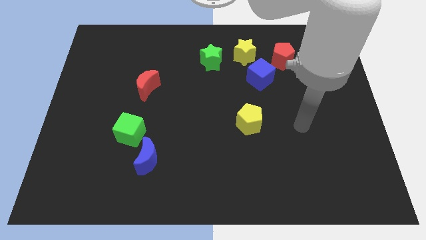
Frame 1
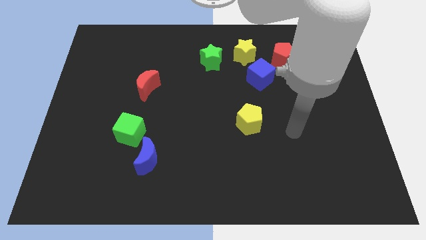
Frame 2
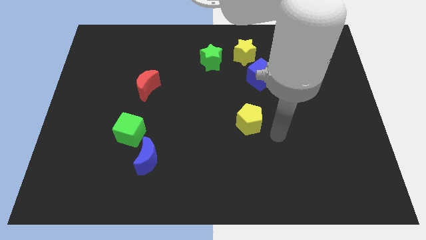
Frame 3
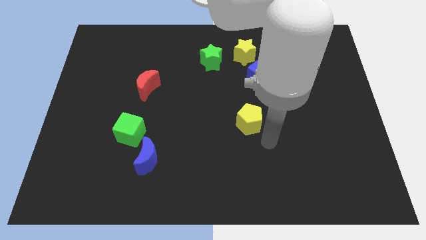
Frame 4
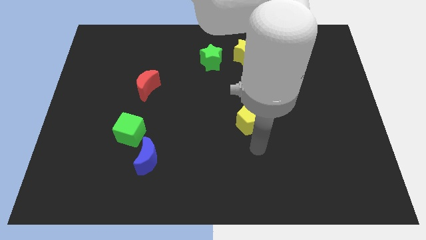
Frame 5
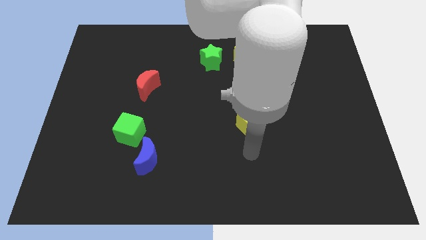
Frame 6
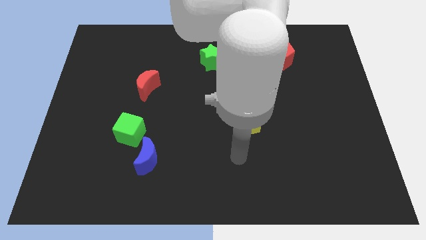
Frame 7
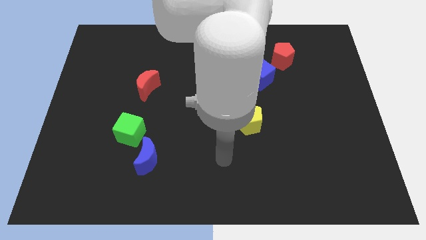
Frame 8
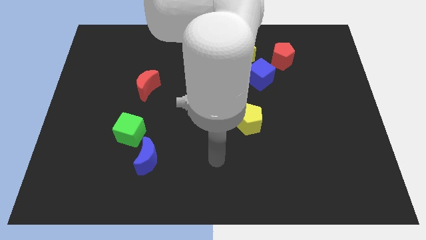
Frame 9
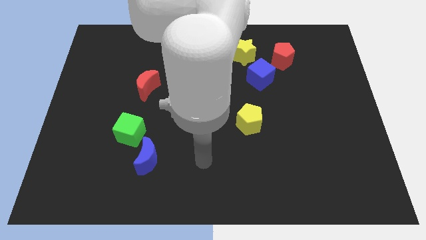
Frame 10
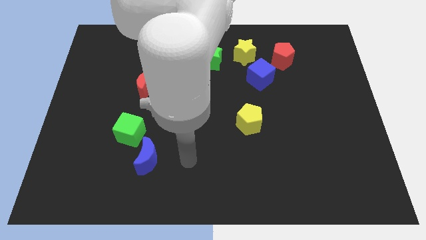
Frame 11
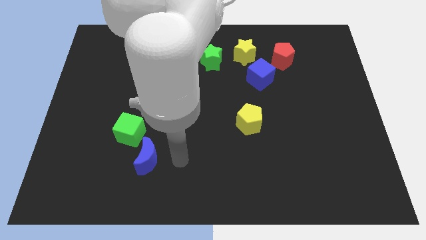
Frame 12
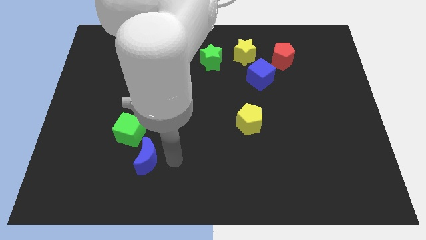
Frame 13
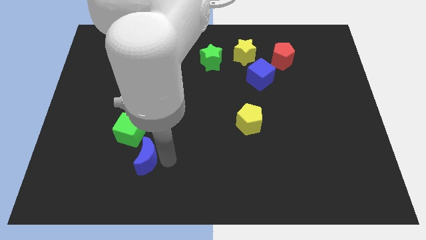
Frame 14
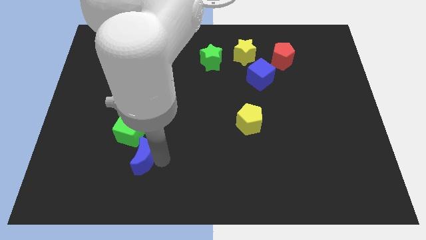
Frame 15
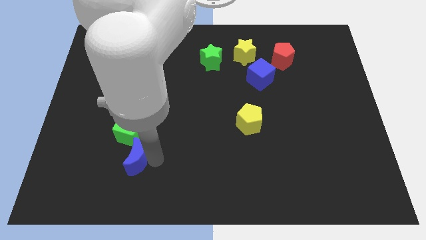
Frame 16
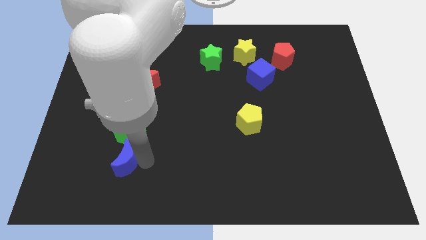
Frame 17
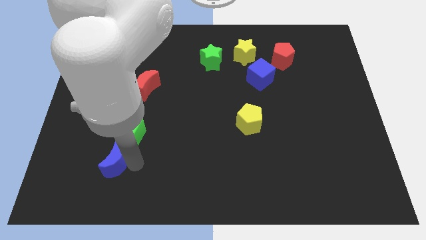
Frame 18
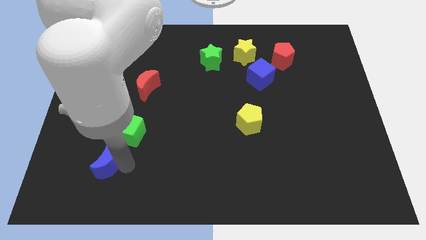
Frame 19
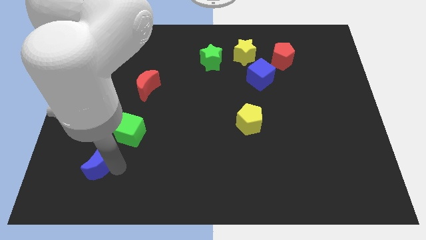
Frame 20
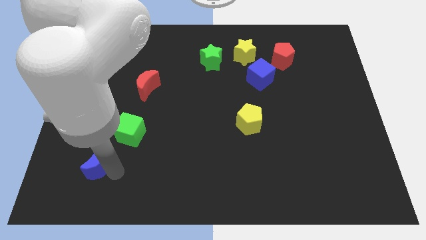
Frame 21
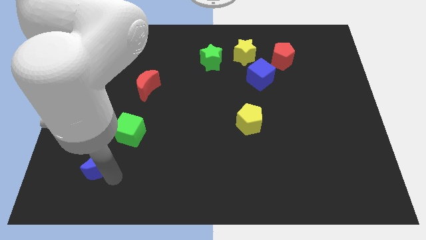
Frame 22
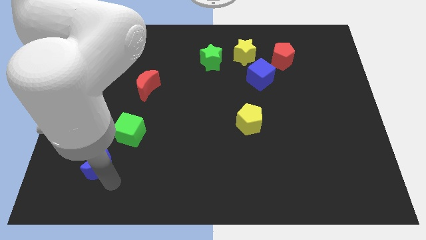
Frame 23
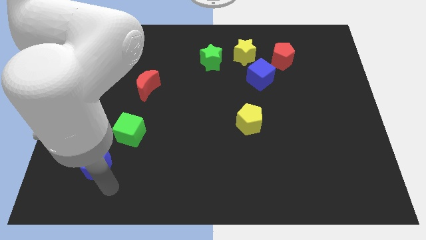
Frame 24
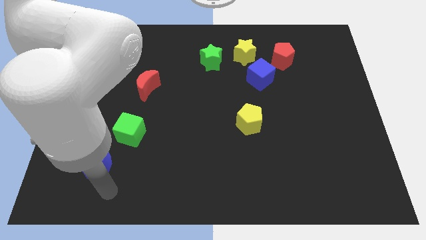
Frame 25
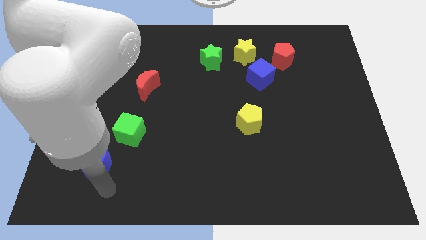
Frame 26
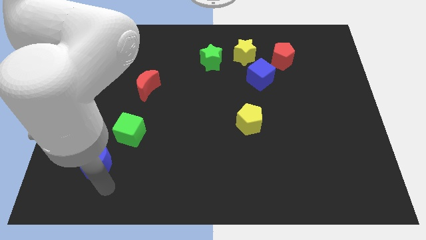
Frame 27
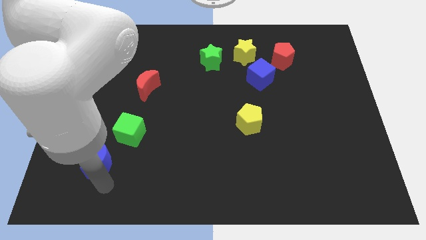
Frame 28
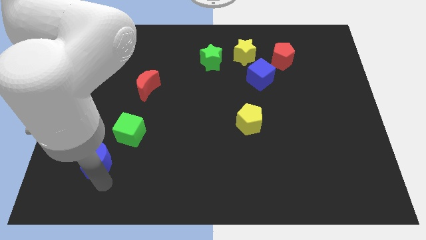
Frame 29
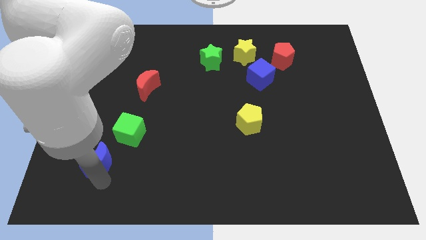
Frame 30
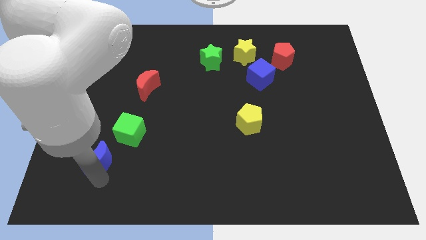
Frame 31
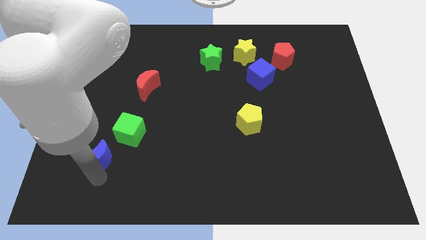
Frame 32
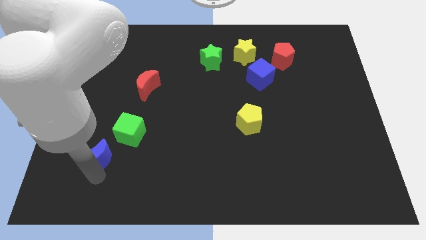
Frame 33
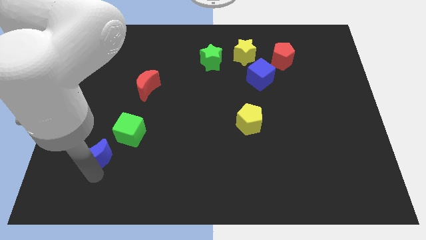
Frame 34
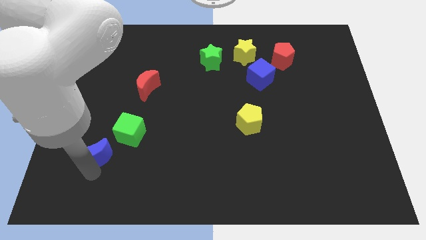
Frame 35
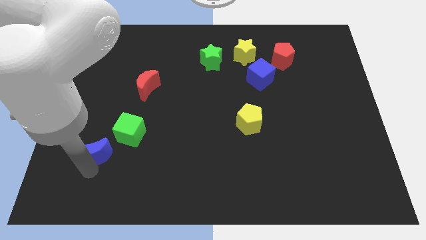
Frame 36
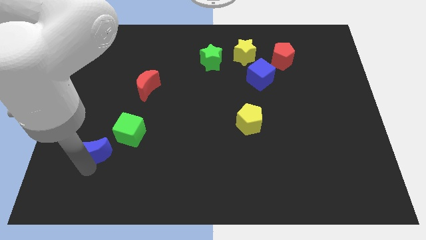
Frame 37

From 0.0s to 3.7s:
slightly push the blue moon upwards and to the left diagonally

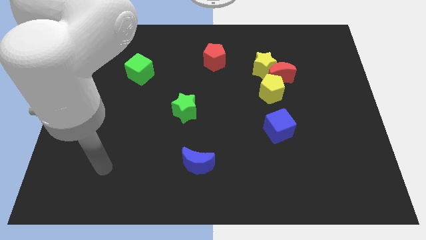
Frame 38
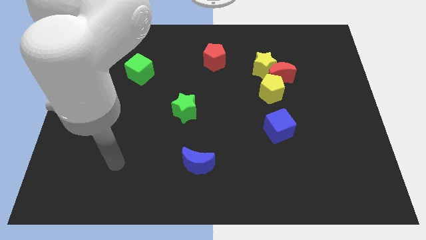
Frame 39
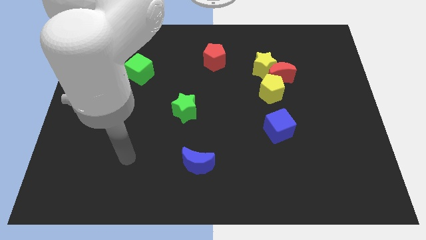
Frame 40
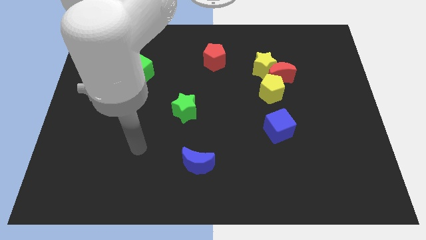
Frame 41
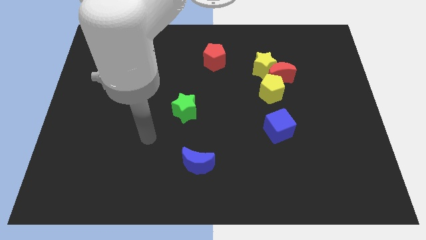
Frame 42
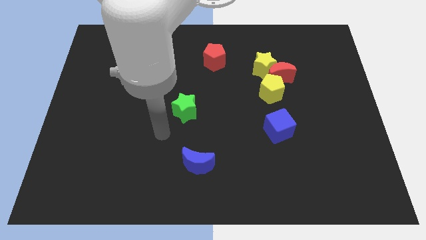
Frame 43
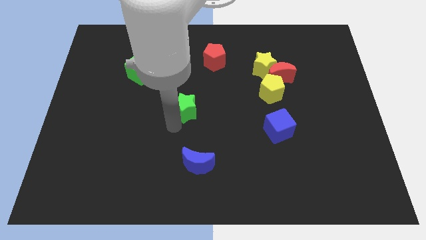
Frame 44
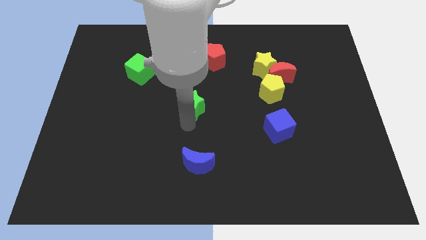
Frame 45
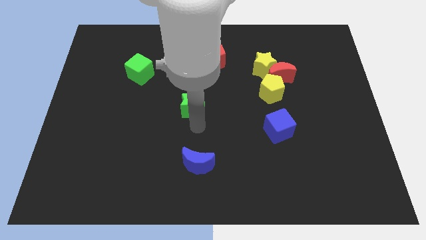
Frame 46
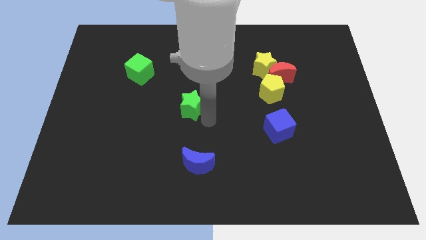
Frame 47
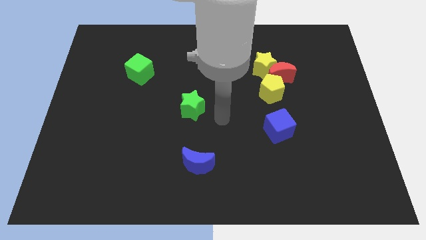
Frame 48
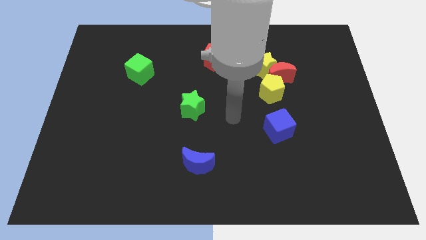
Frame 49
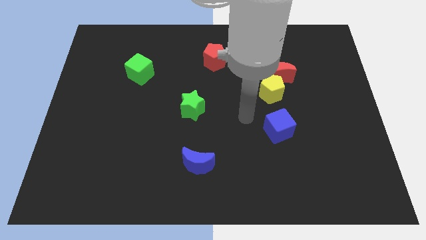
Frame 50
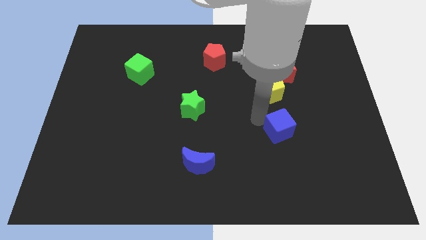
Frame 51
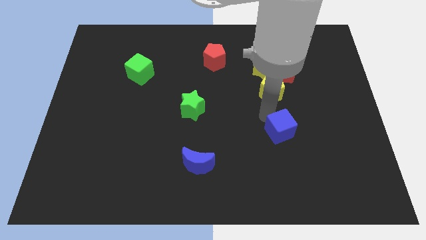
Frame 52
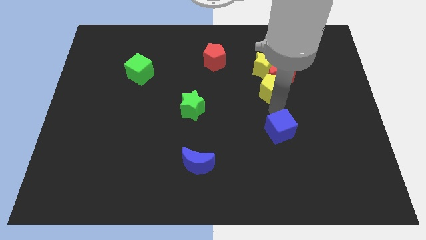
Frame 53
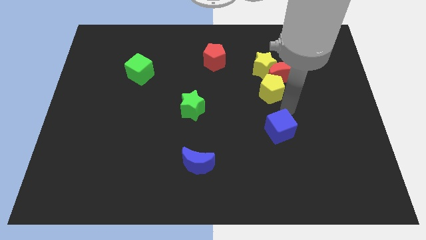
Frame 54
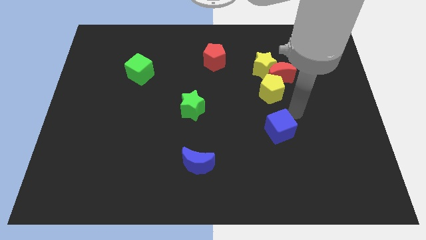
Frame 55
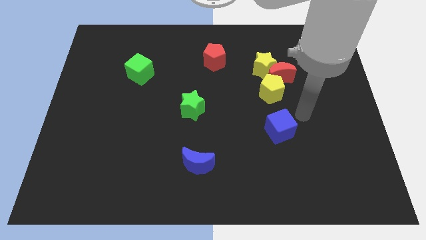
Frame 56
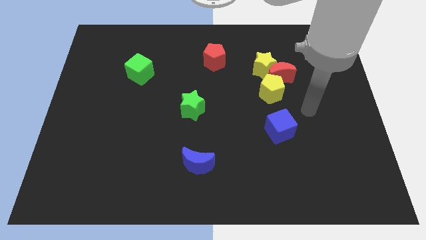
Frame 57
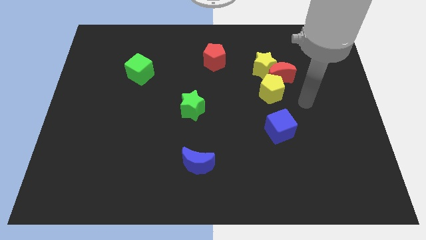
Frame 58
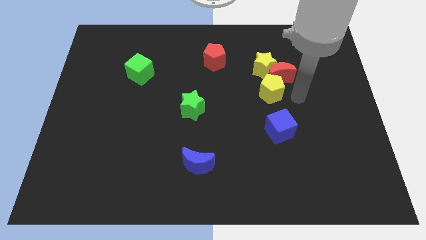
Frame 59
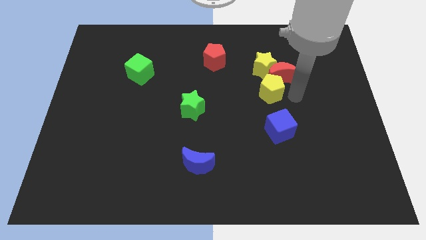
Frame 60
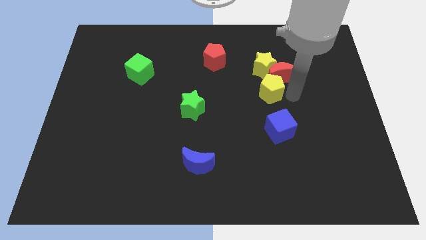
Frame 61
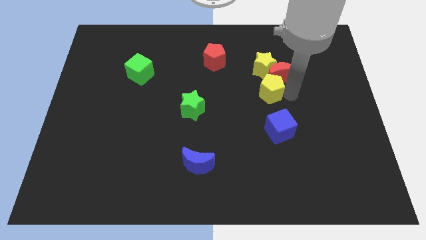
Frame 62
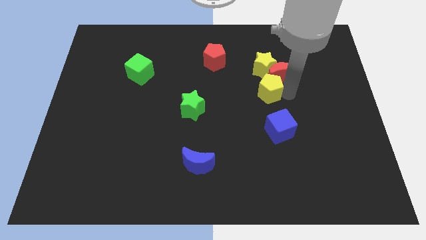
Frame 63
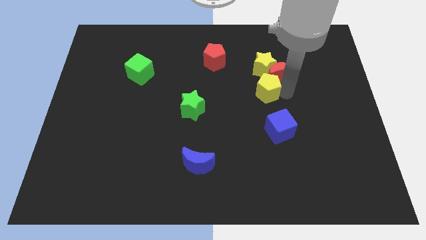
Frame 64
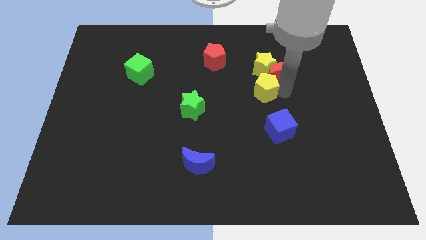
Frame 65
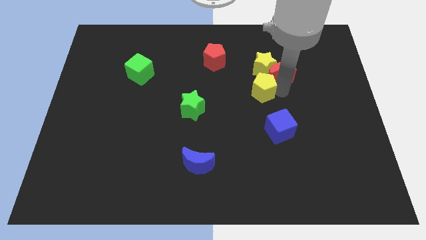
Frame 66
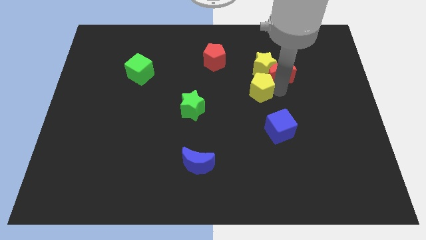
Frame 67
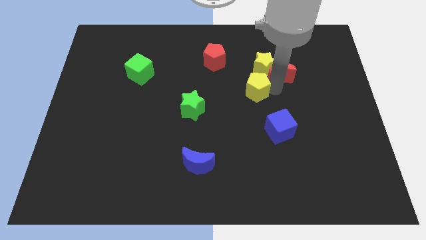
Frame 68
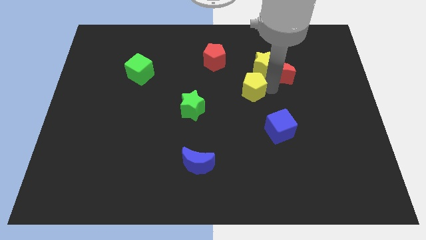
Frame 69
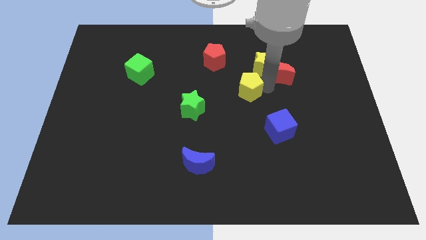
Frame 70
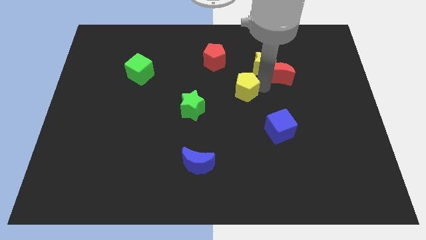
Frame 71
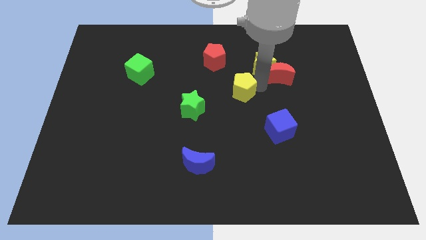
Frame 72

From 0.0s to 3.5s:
slightly move the yellow pentagon to the left

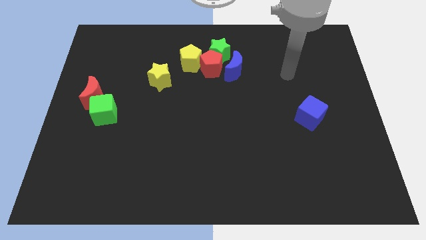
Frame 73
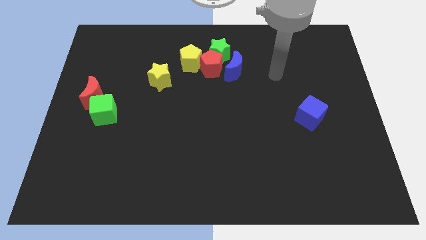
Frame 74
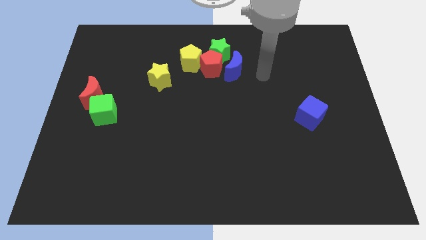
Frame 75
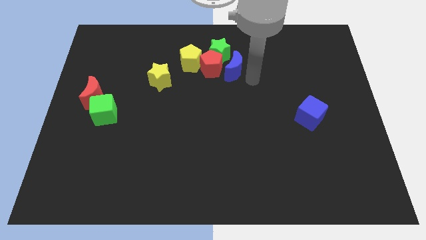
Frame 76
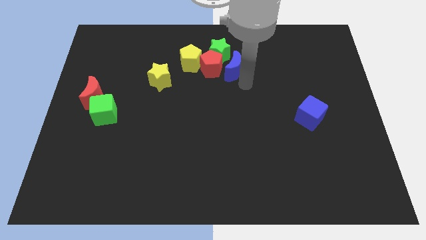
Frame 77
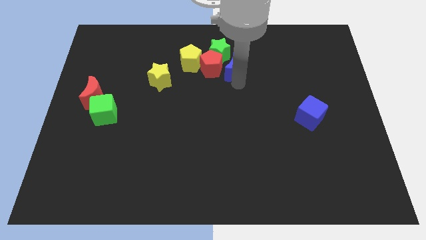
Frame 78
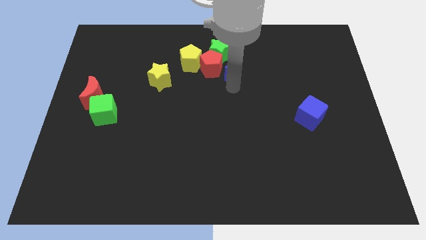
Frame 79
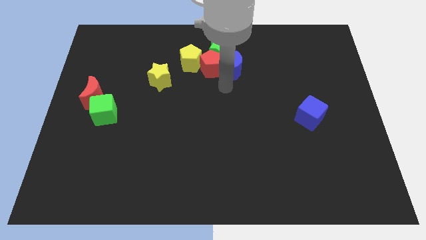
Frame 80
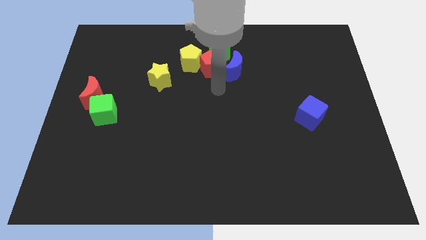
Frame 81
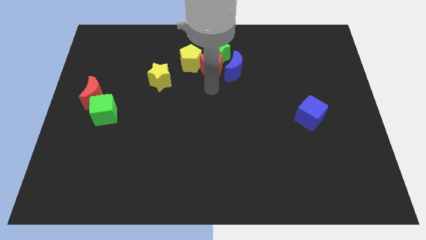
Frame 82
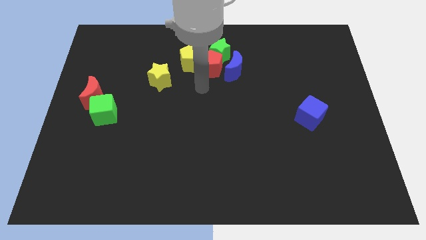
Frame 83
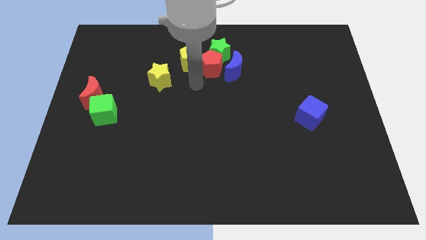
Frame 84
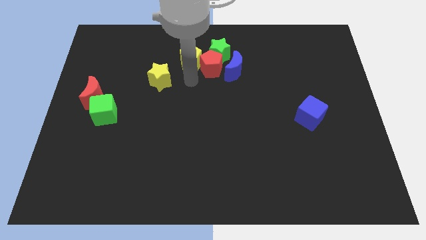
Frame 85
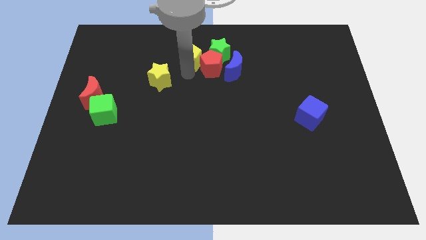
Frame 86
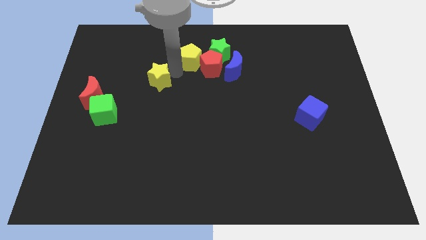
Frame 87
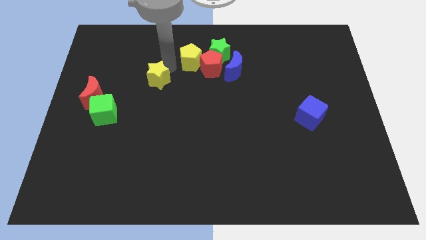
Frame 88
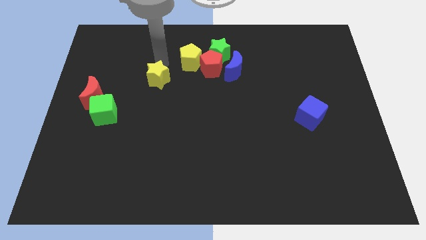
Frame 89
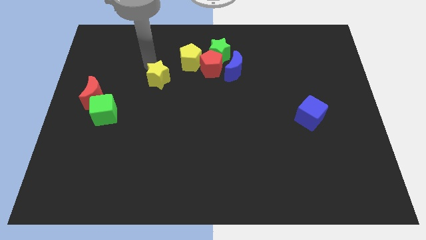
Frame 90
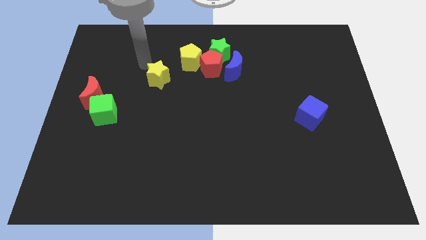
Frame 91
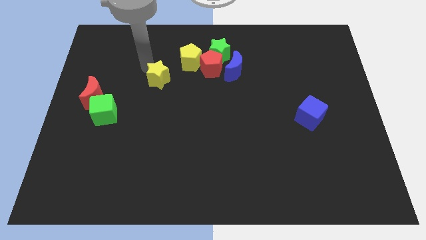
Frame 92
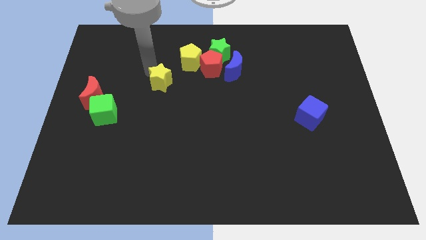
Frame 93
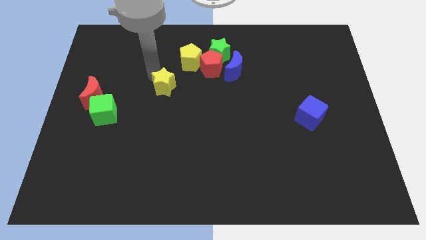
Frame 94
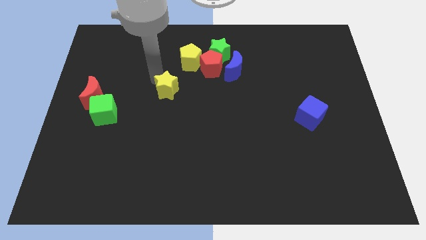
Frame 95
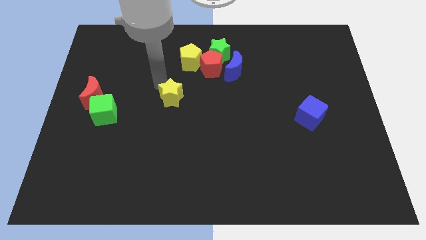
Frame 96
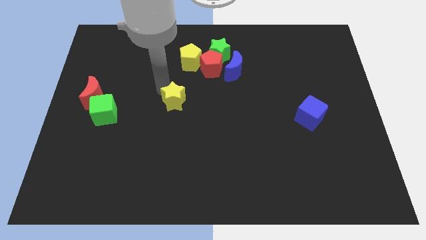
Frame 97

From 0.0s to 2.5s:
move the yellow star a bit downwards and right
